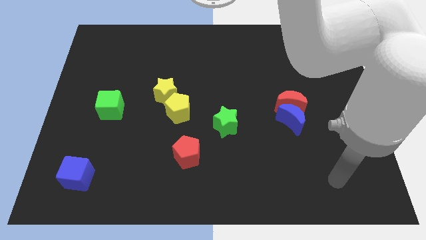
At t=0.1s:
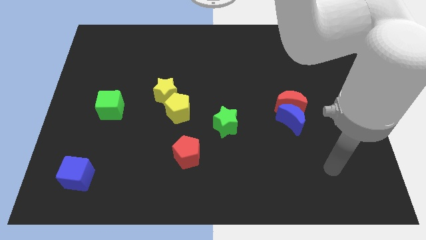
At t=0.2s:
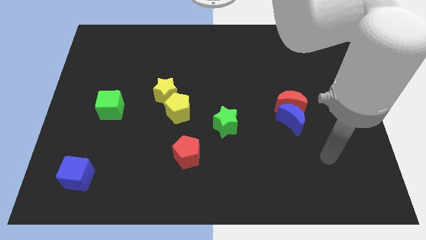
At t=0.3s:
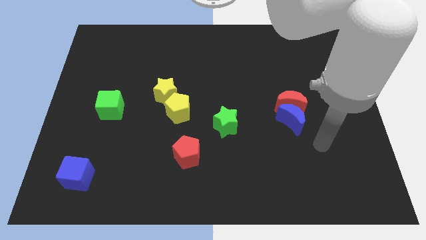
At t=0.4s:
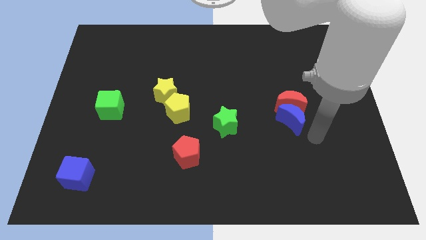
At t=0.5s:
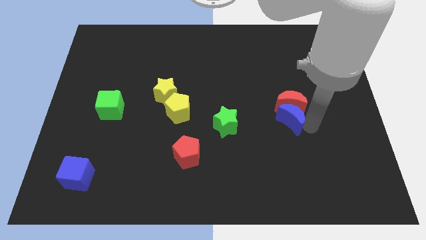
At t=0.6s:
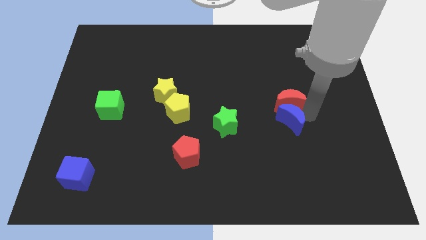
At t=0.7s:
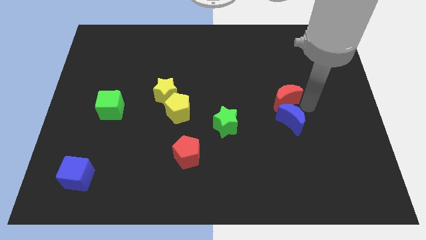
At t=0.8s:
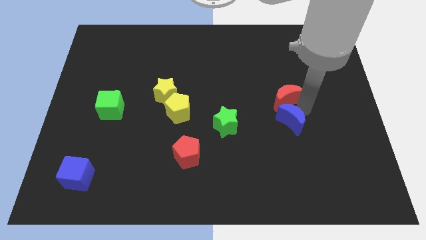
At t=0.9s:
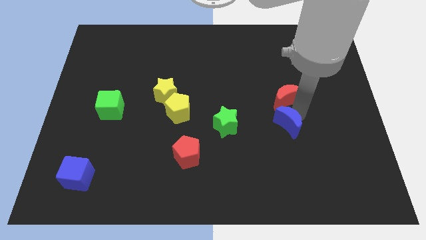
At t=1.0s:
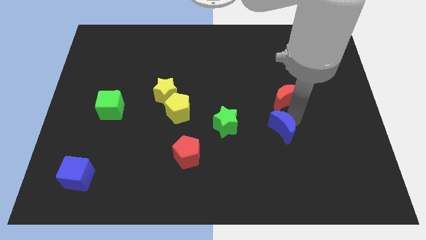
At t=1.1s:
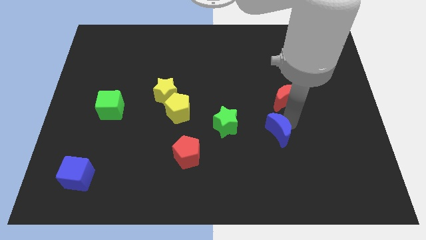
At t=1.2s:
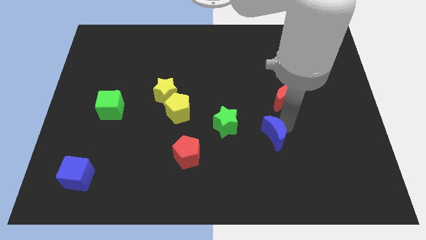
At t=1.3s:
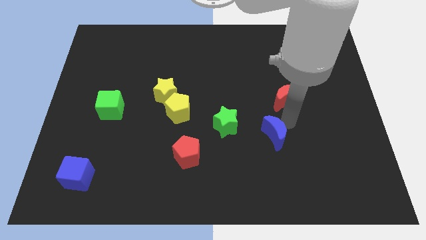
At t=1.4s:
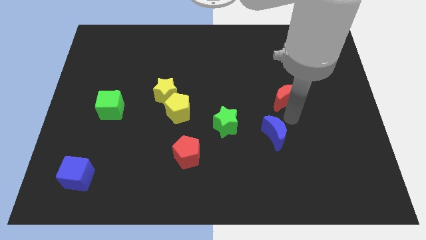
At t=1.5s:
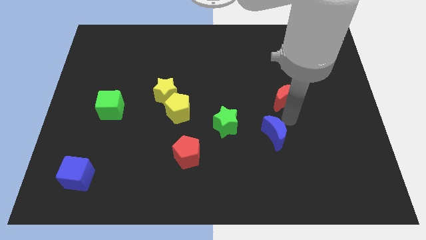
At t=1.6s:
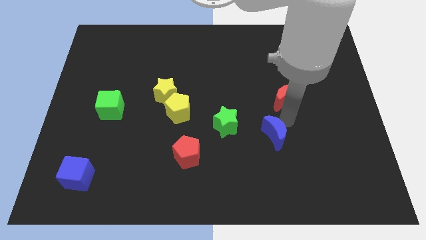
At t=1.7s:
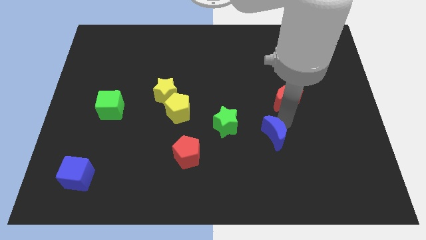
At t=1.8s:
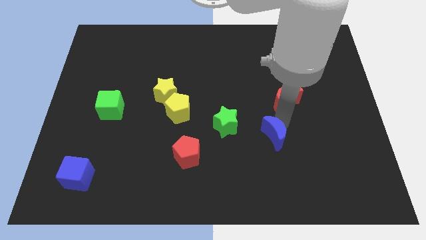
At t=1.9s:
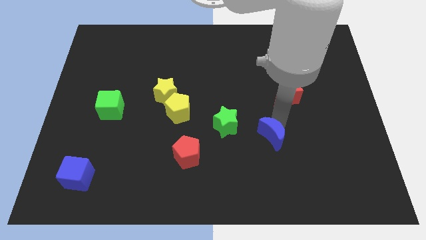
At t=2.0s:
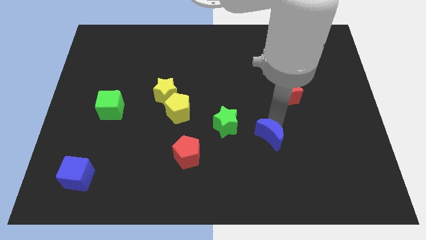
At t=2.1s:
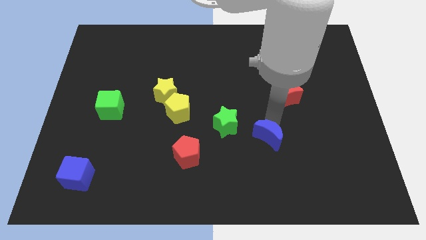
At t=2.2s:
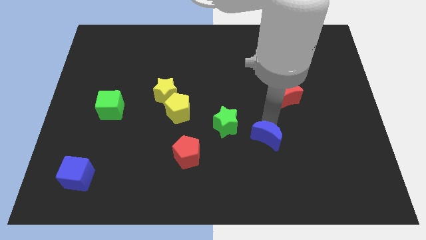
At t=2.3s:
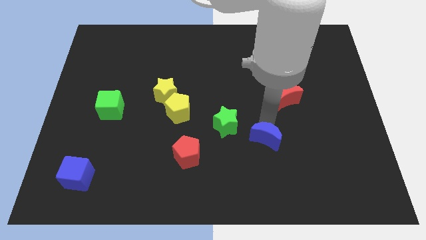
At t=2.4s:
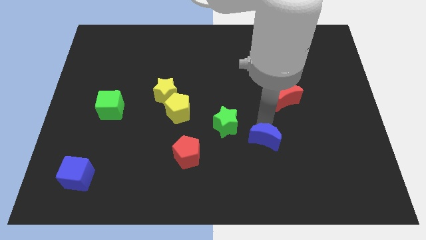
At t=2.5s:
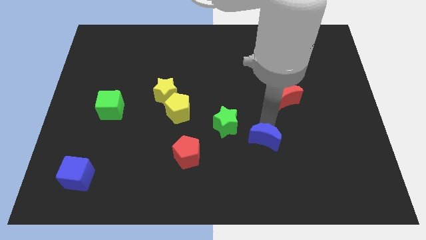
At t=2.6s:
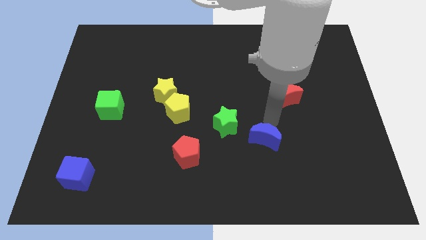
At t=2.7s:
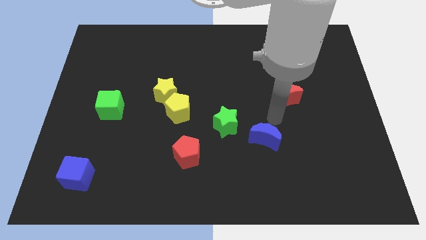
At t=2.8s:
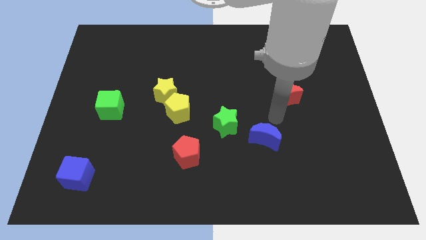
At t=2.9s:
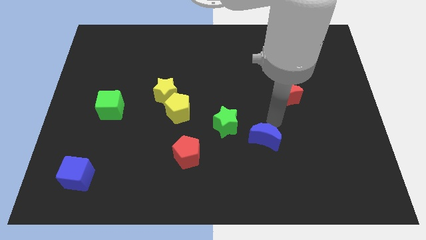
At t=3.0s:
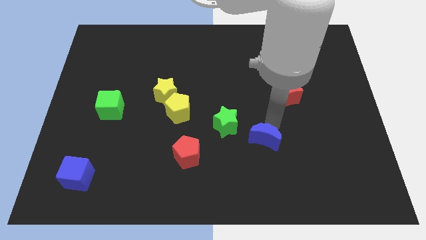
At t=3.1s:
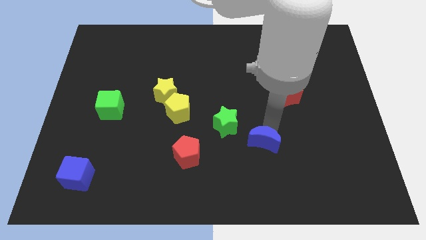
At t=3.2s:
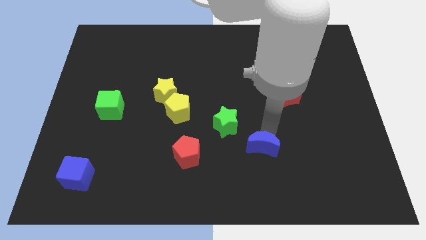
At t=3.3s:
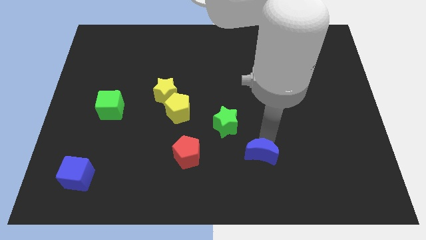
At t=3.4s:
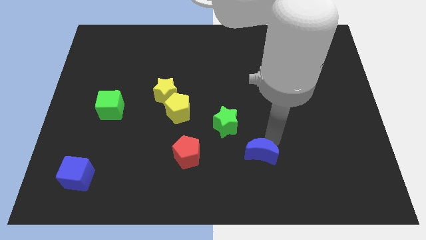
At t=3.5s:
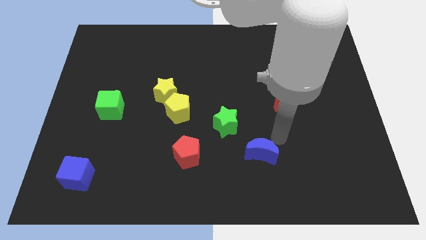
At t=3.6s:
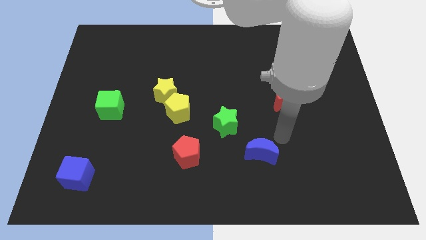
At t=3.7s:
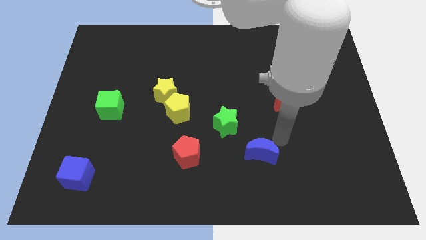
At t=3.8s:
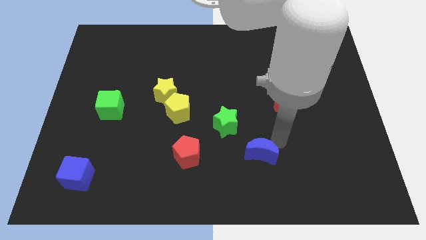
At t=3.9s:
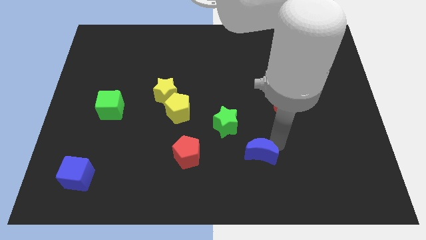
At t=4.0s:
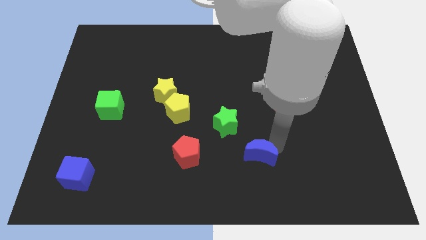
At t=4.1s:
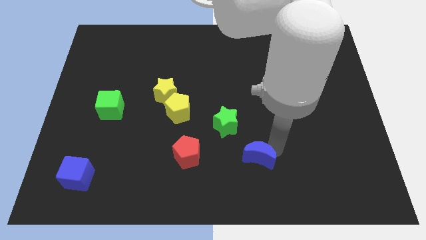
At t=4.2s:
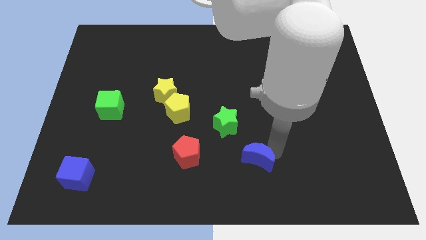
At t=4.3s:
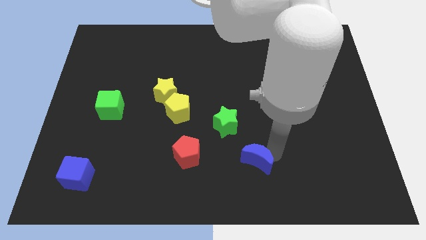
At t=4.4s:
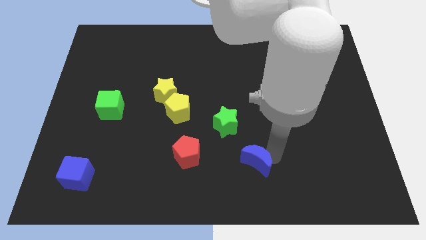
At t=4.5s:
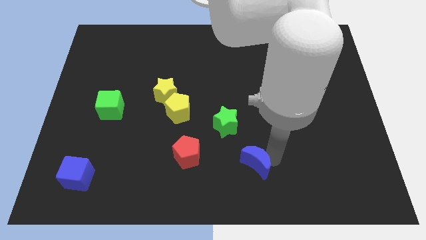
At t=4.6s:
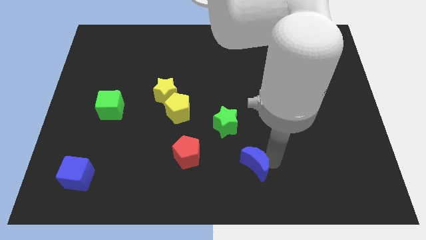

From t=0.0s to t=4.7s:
push the blue moon to the bottom

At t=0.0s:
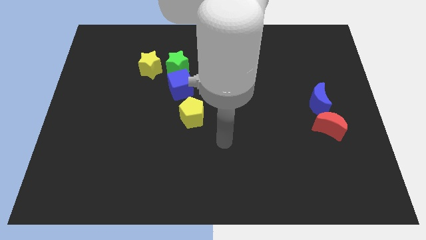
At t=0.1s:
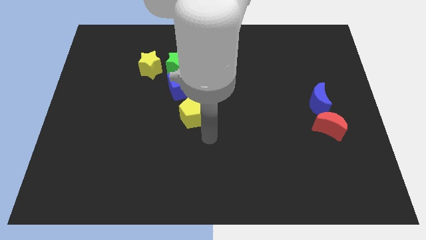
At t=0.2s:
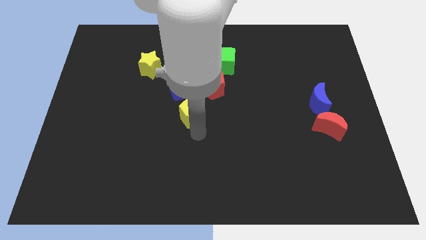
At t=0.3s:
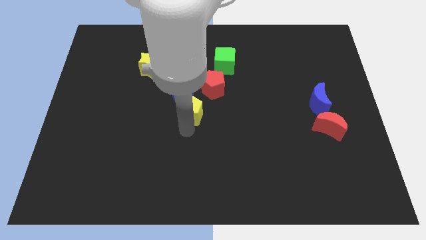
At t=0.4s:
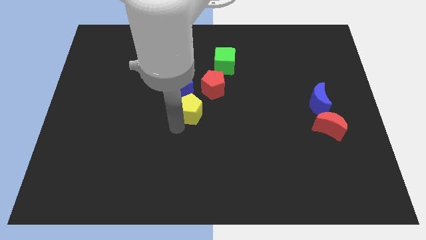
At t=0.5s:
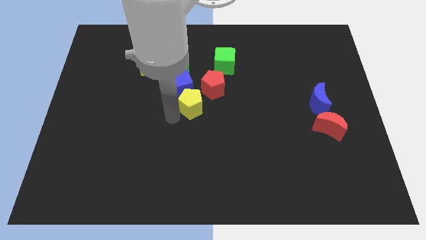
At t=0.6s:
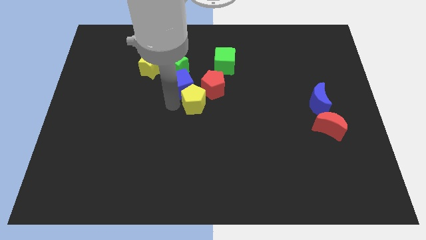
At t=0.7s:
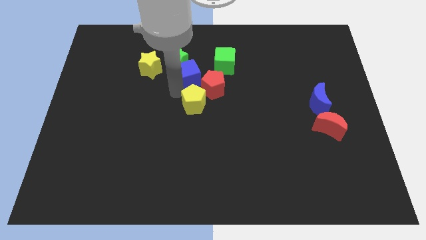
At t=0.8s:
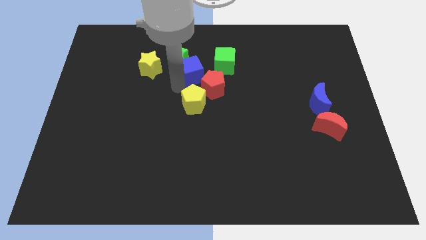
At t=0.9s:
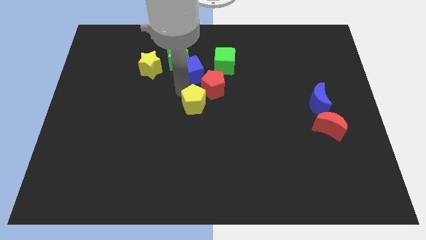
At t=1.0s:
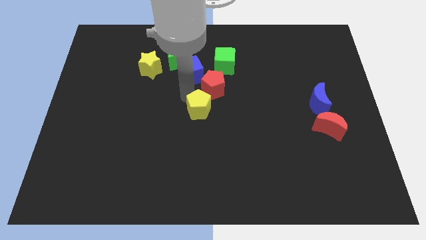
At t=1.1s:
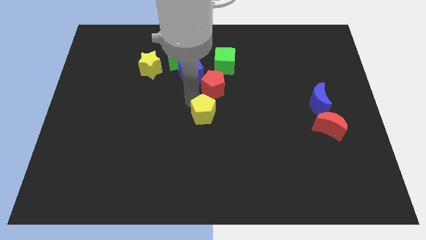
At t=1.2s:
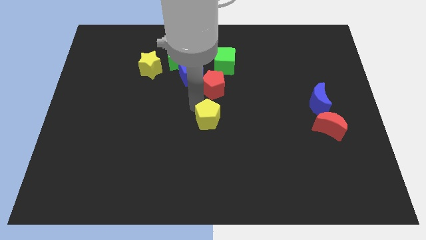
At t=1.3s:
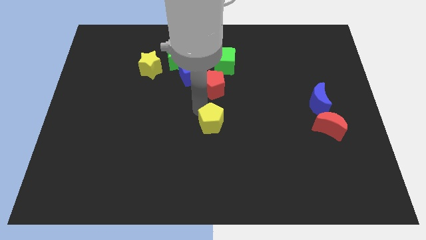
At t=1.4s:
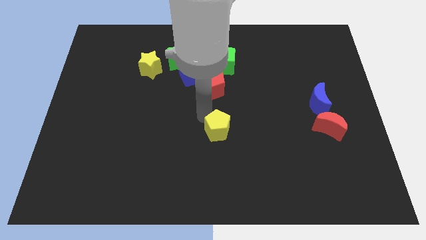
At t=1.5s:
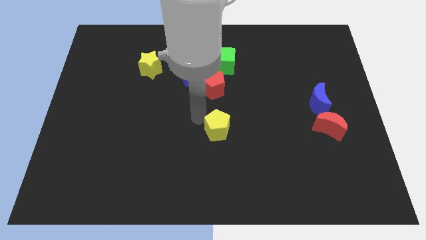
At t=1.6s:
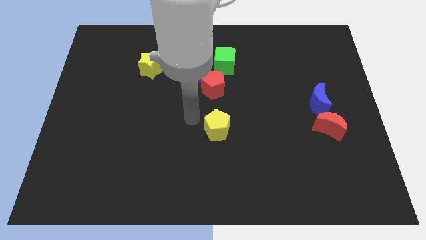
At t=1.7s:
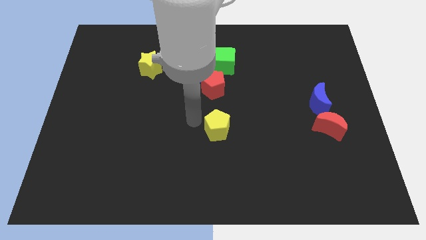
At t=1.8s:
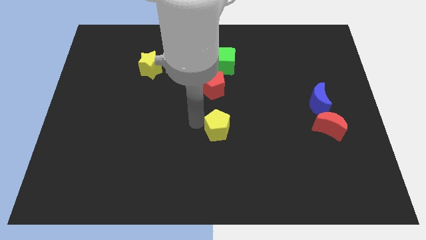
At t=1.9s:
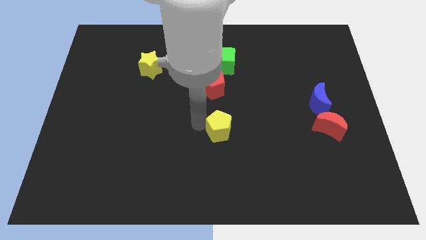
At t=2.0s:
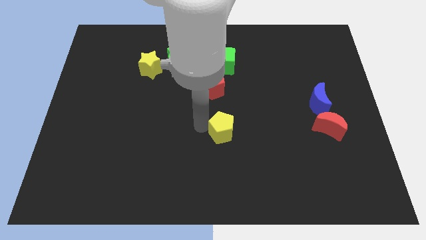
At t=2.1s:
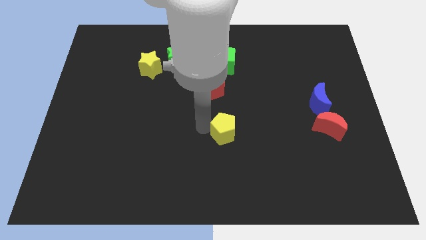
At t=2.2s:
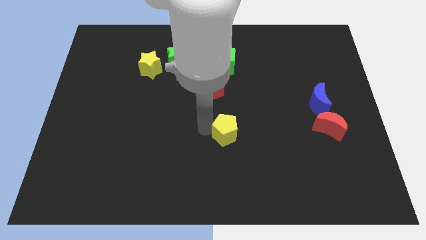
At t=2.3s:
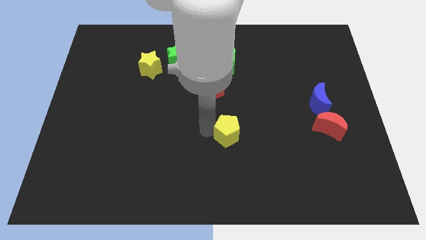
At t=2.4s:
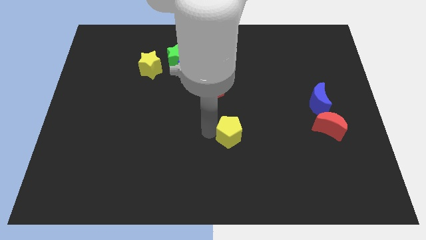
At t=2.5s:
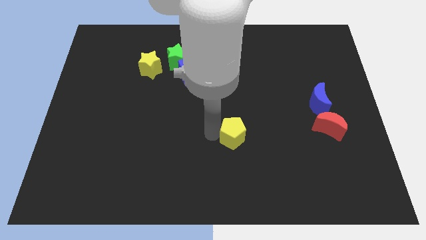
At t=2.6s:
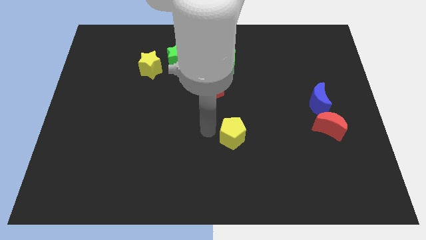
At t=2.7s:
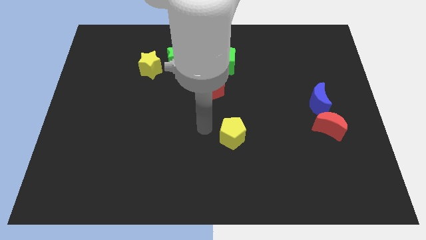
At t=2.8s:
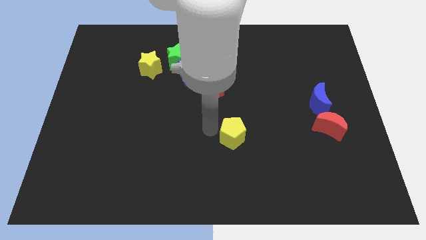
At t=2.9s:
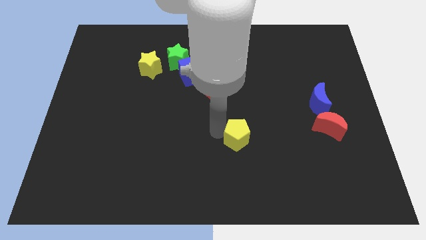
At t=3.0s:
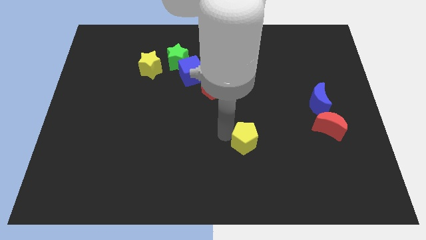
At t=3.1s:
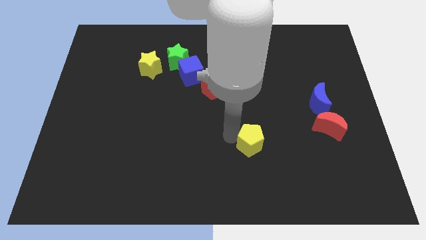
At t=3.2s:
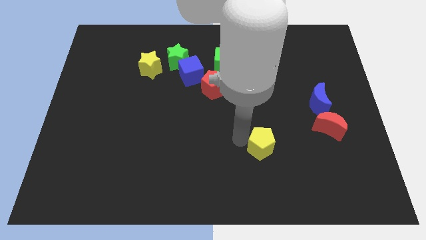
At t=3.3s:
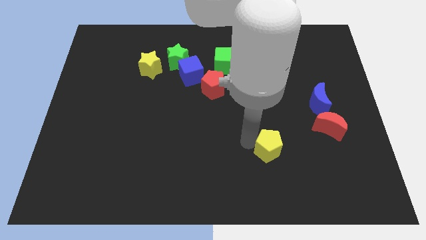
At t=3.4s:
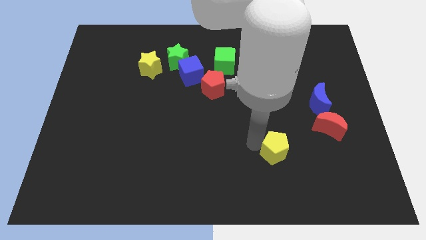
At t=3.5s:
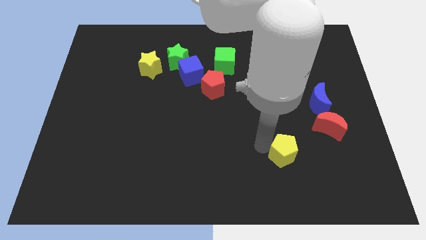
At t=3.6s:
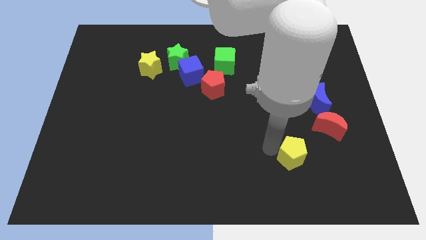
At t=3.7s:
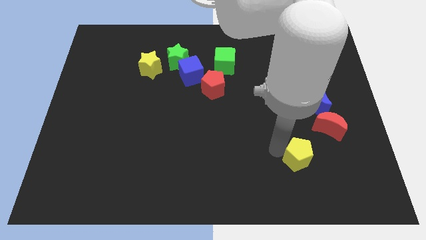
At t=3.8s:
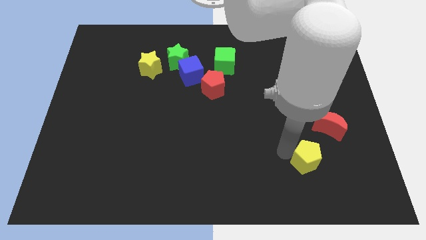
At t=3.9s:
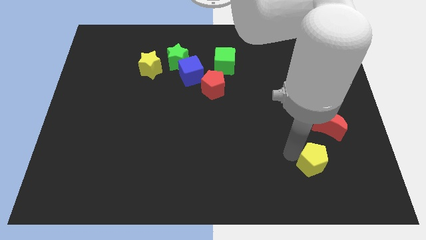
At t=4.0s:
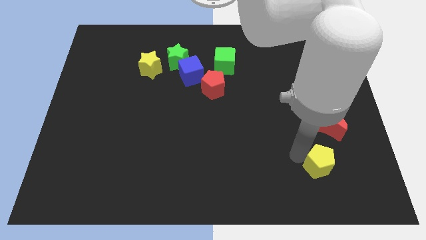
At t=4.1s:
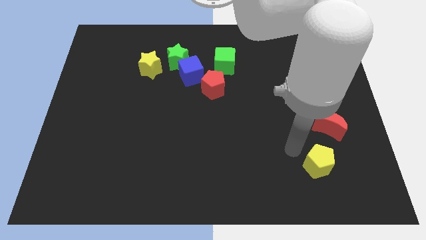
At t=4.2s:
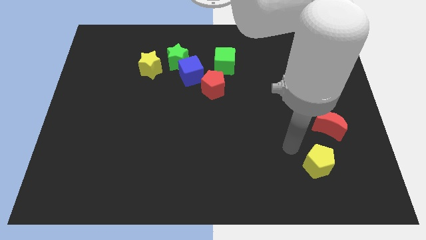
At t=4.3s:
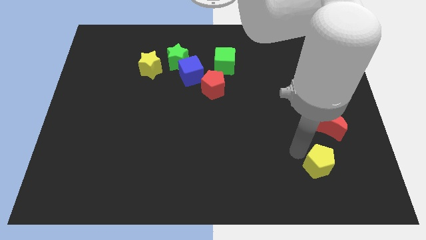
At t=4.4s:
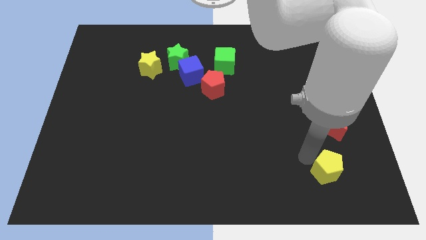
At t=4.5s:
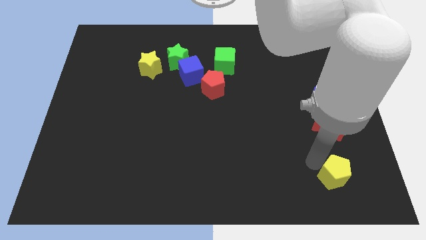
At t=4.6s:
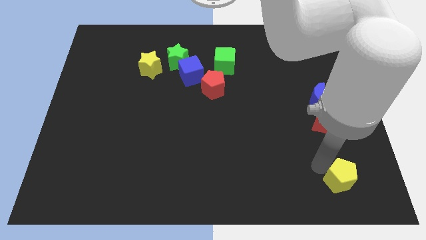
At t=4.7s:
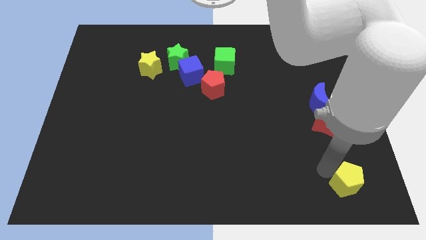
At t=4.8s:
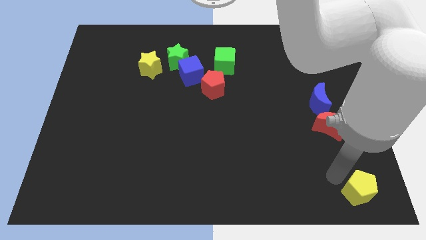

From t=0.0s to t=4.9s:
move the yellow pentagon to the bottom right
